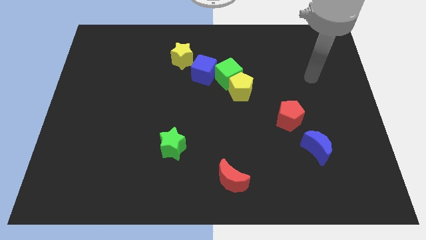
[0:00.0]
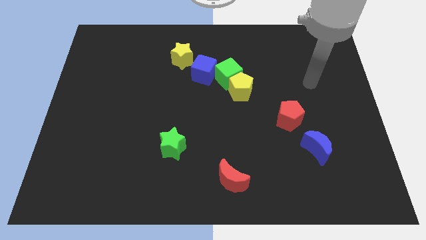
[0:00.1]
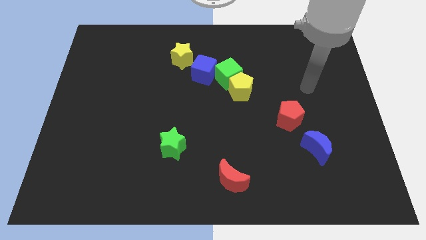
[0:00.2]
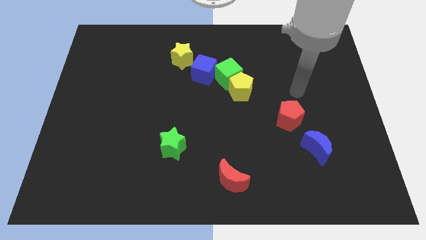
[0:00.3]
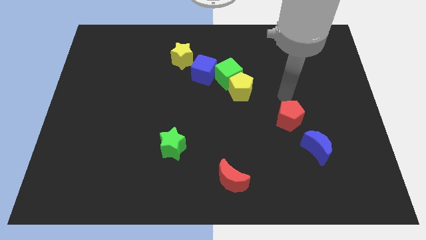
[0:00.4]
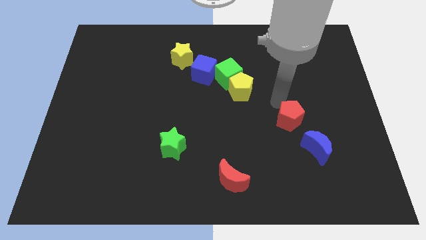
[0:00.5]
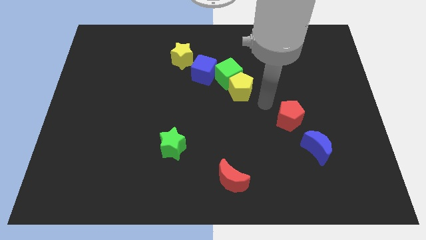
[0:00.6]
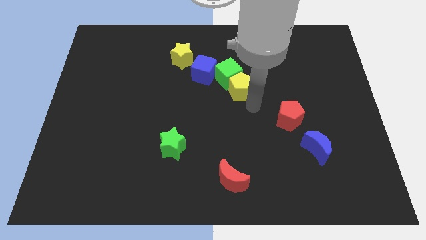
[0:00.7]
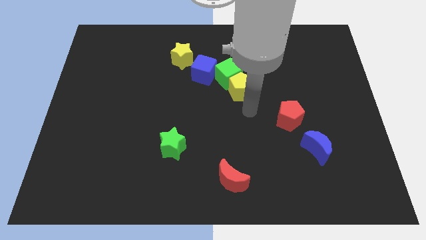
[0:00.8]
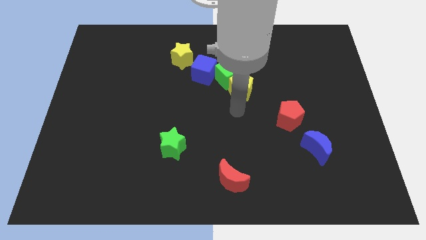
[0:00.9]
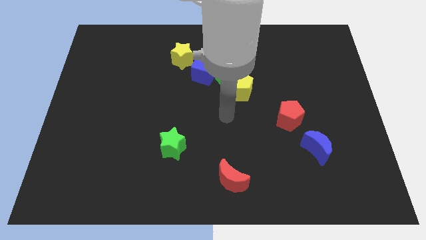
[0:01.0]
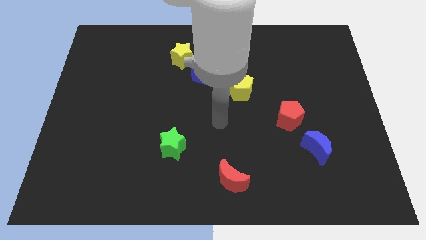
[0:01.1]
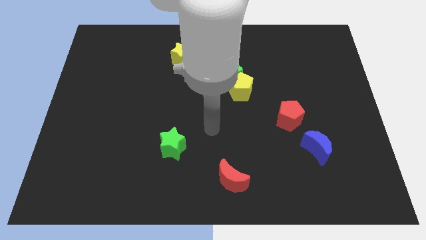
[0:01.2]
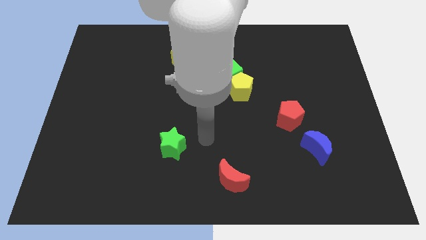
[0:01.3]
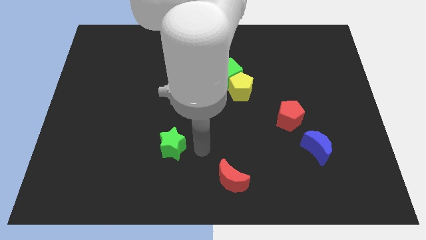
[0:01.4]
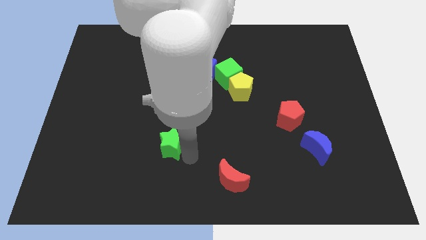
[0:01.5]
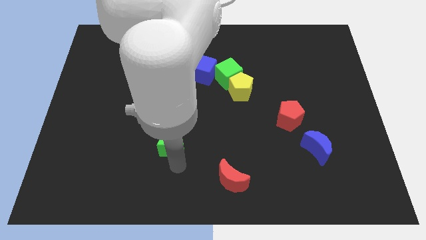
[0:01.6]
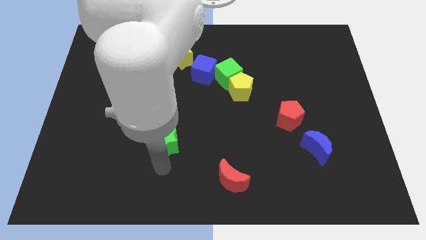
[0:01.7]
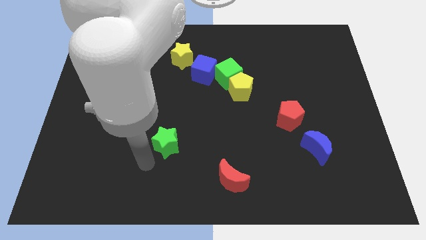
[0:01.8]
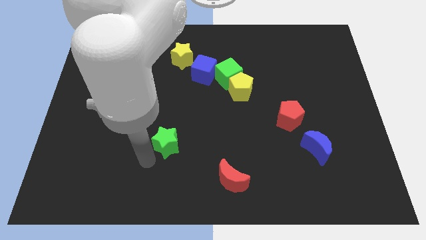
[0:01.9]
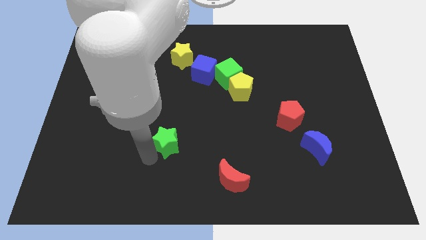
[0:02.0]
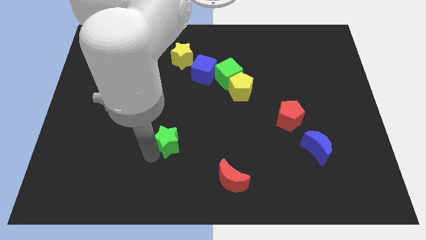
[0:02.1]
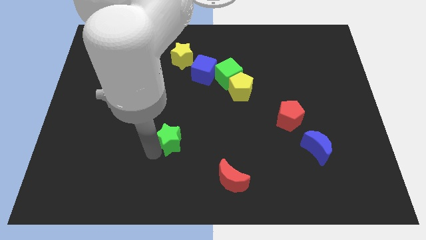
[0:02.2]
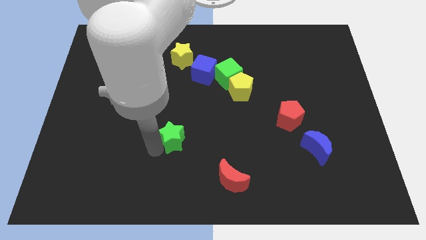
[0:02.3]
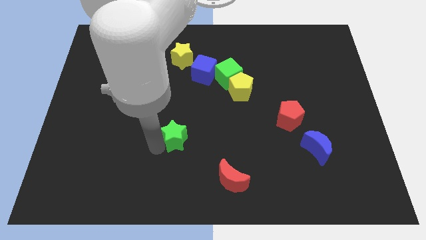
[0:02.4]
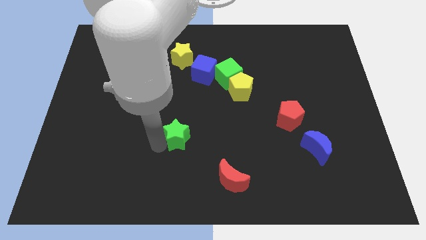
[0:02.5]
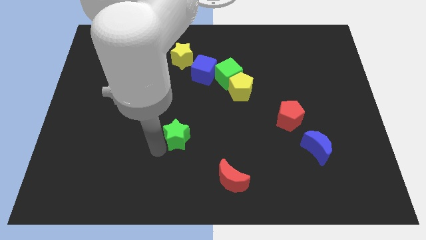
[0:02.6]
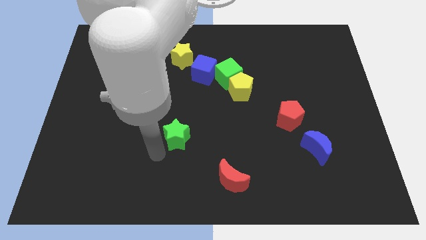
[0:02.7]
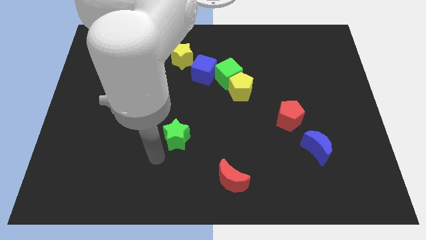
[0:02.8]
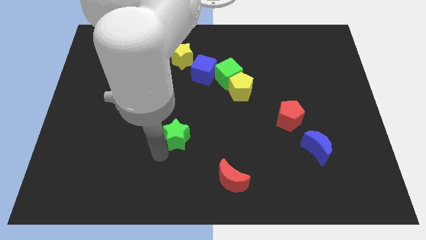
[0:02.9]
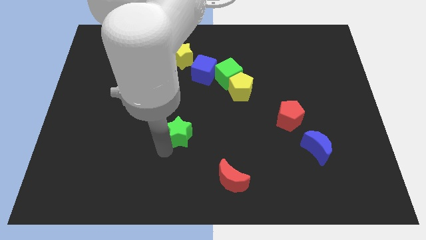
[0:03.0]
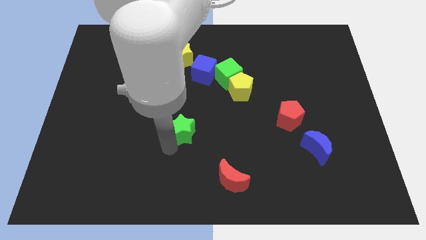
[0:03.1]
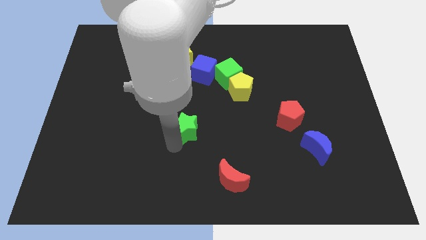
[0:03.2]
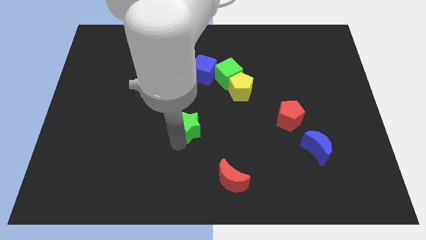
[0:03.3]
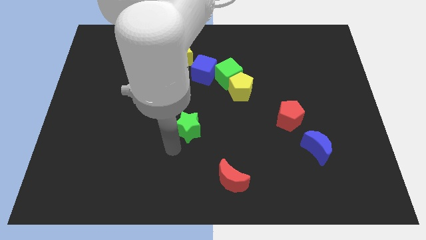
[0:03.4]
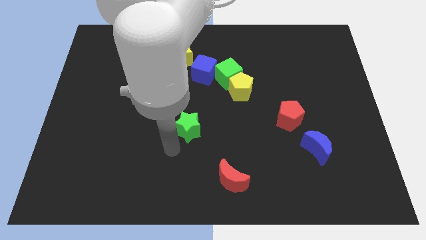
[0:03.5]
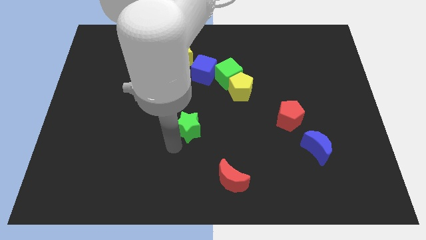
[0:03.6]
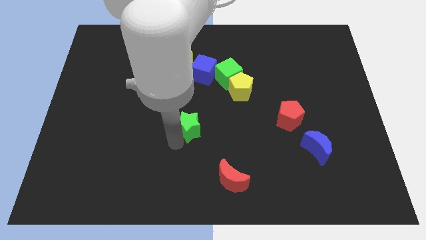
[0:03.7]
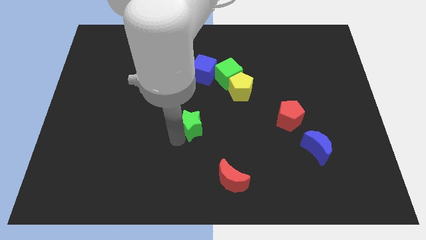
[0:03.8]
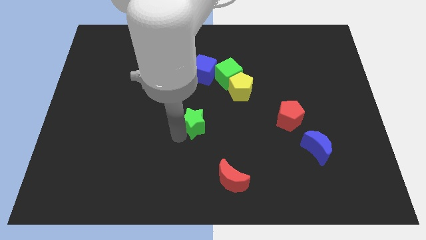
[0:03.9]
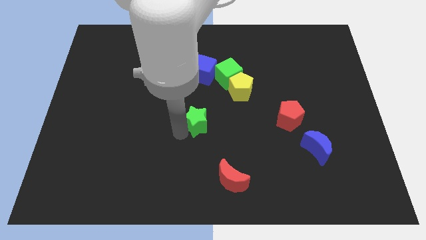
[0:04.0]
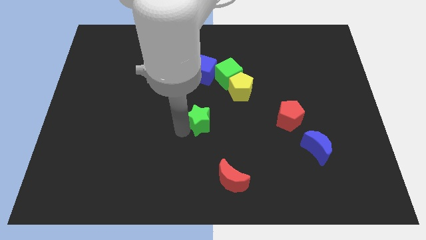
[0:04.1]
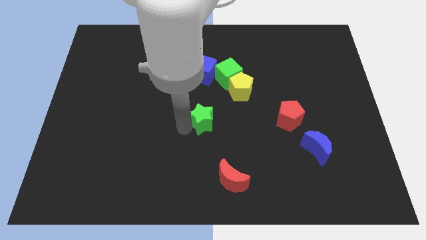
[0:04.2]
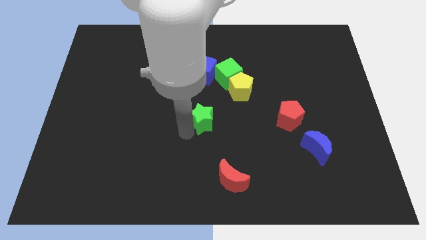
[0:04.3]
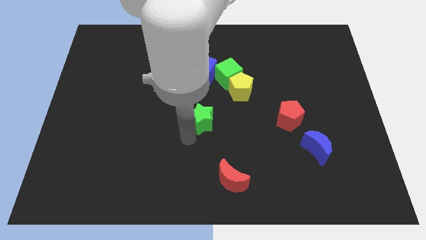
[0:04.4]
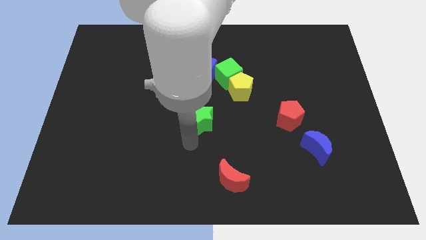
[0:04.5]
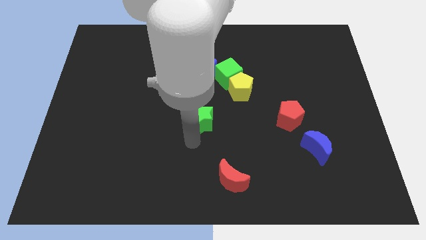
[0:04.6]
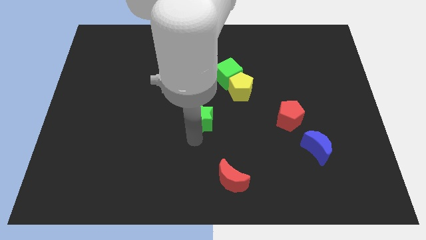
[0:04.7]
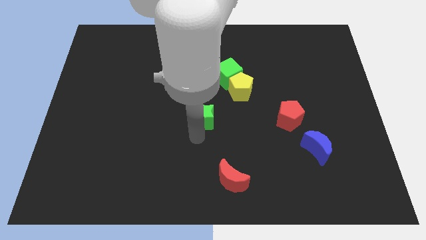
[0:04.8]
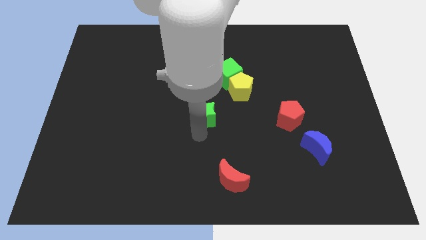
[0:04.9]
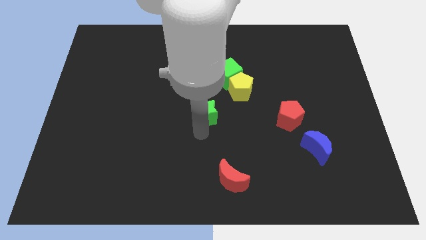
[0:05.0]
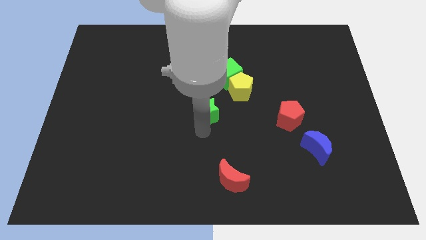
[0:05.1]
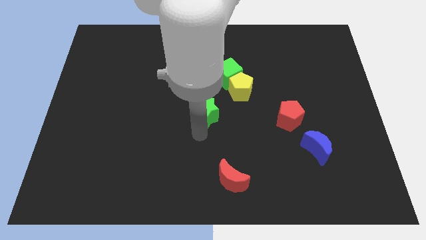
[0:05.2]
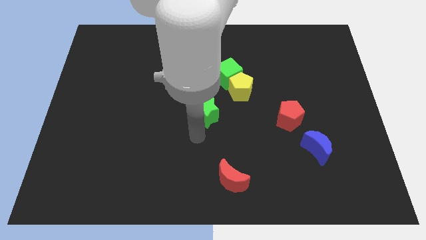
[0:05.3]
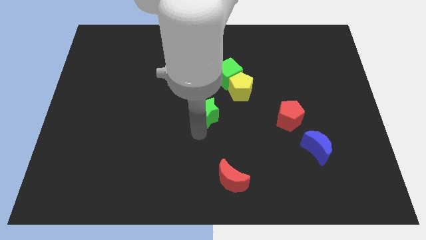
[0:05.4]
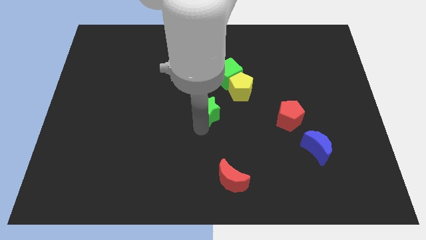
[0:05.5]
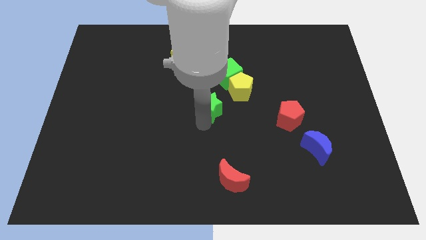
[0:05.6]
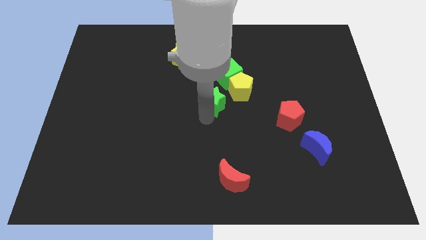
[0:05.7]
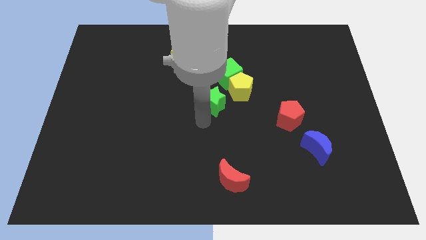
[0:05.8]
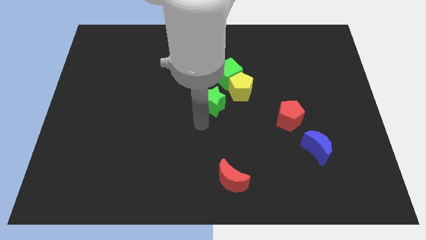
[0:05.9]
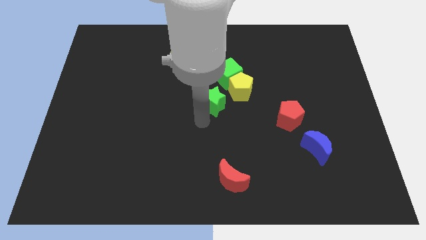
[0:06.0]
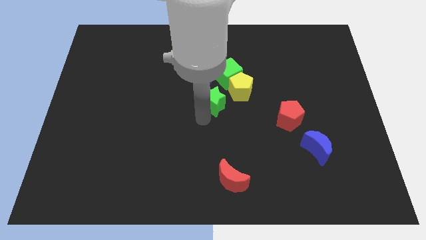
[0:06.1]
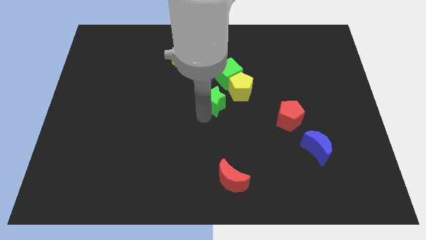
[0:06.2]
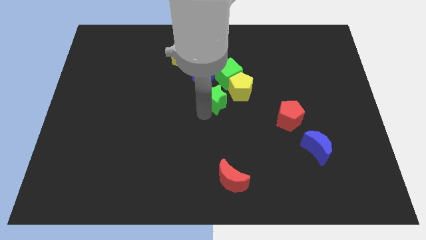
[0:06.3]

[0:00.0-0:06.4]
put the green star to the bottom right side of the blue cube
